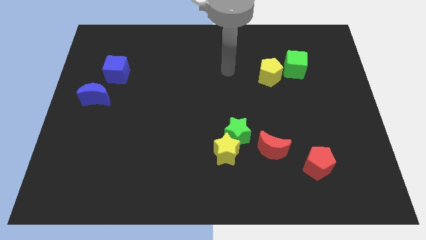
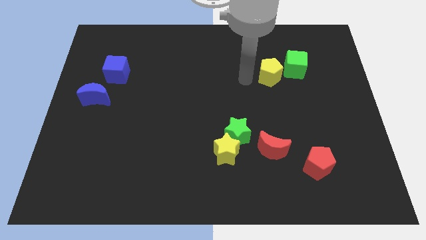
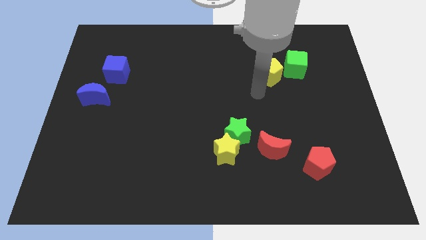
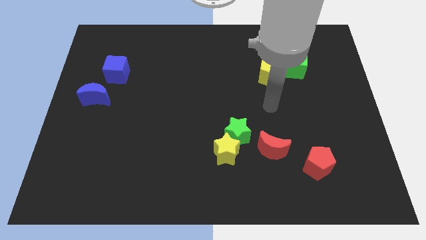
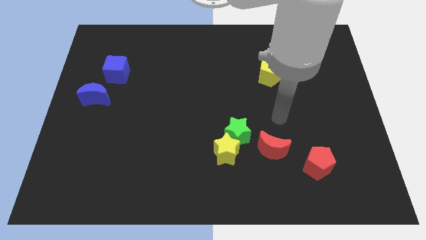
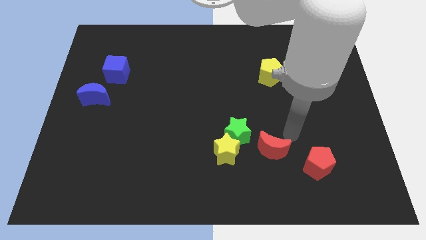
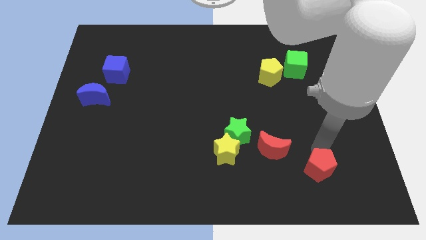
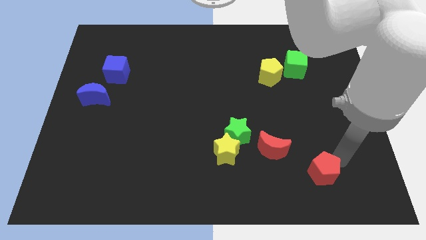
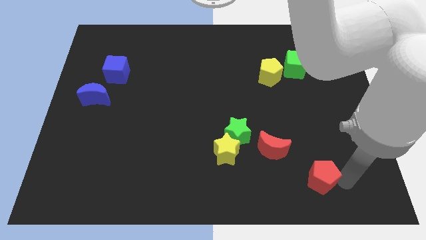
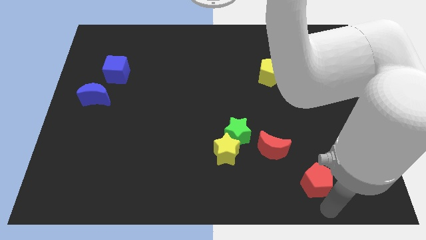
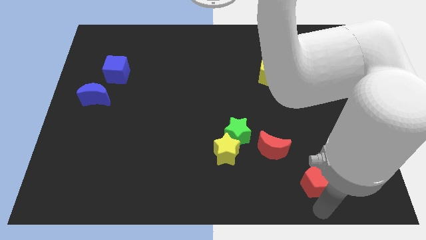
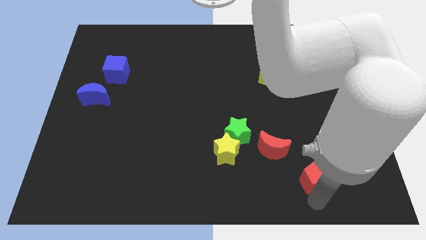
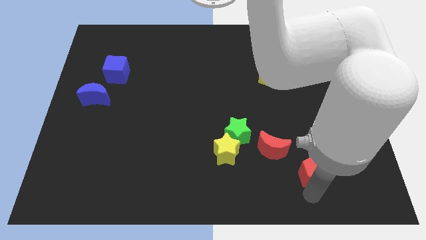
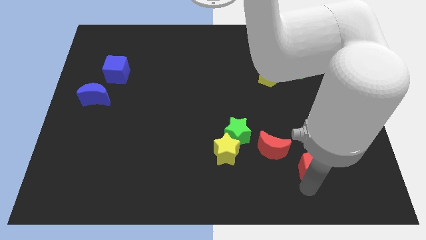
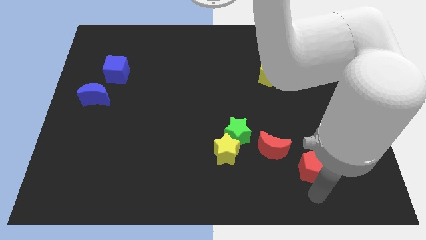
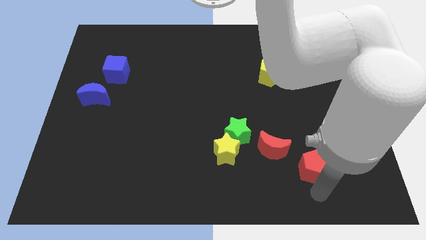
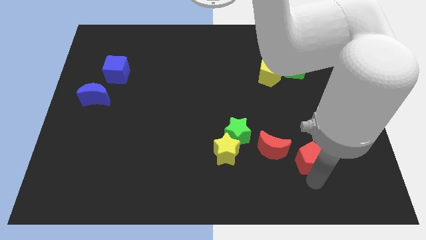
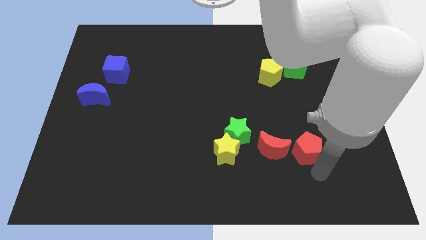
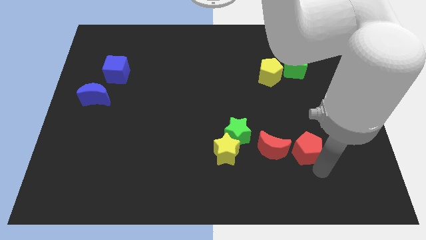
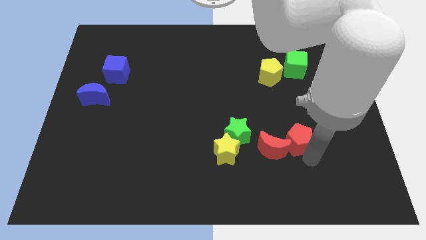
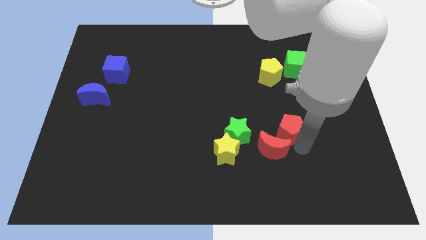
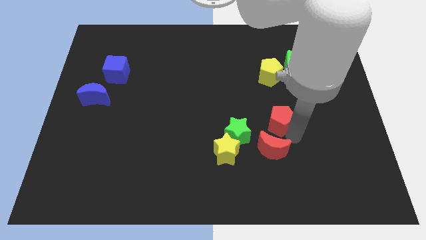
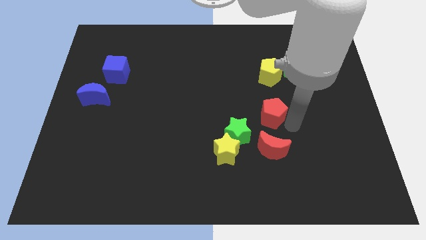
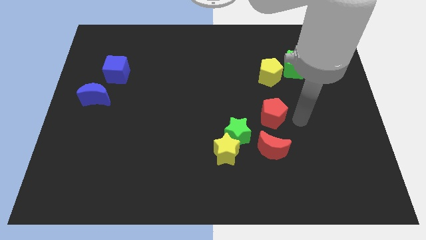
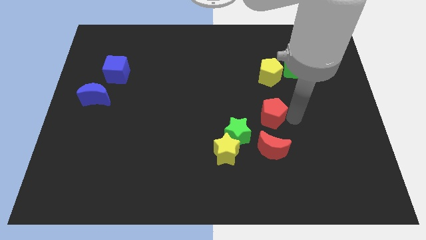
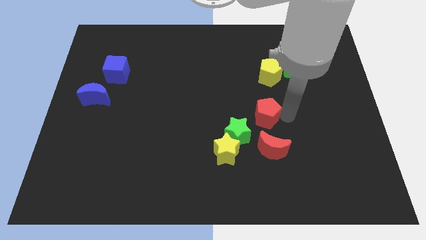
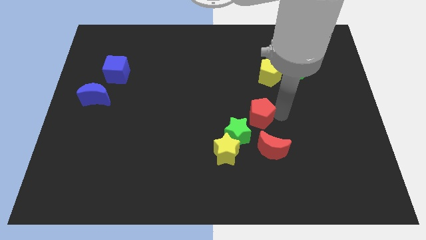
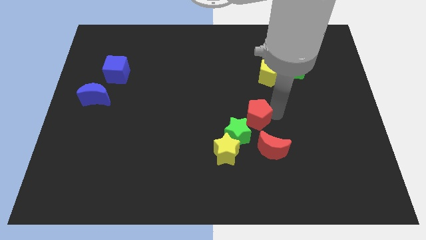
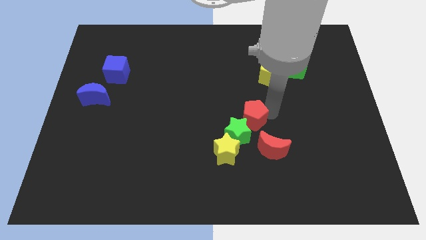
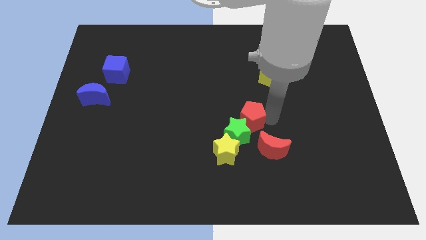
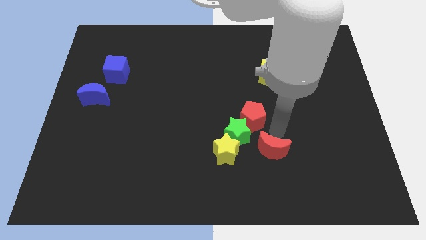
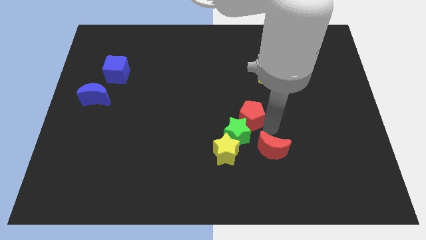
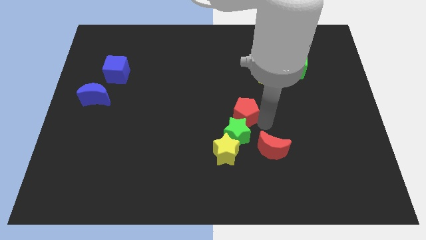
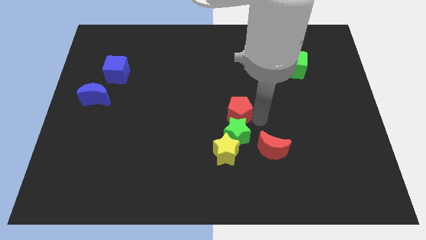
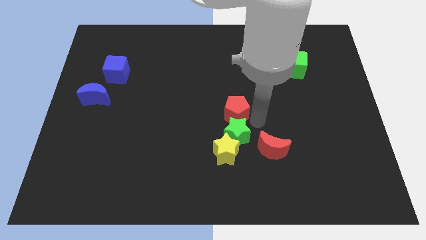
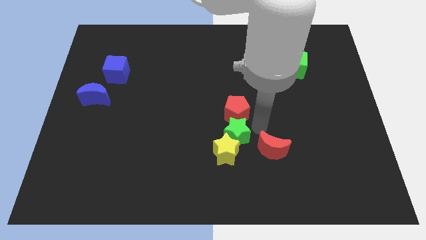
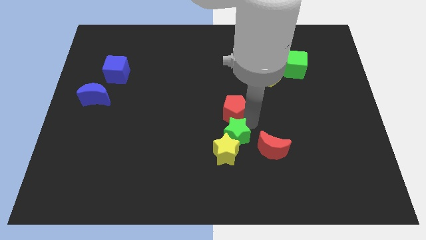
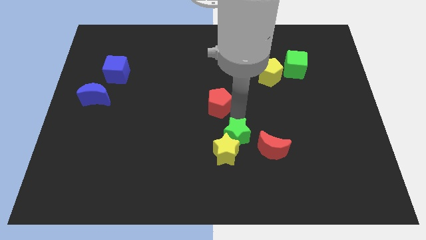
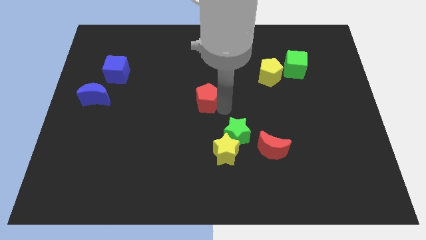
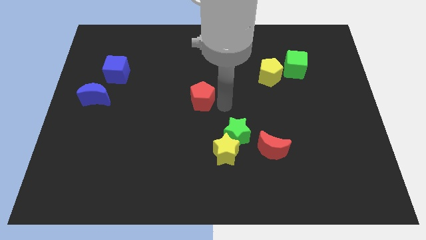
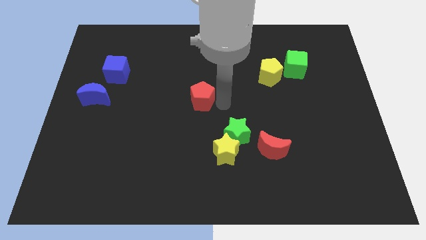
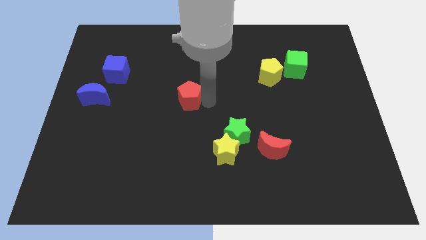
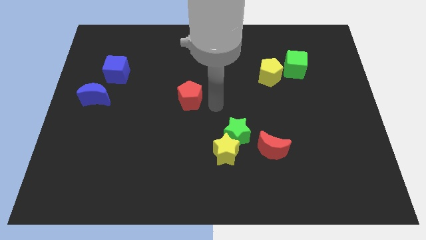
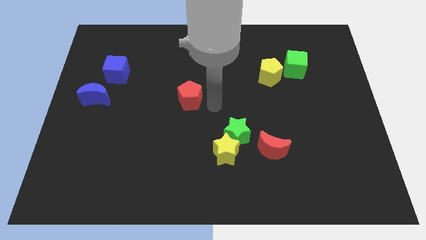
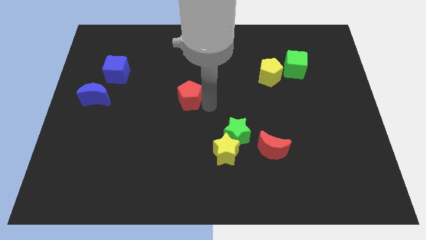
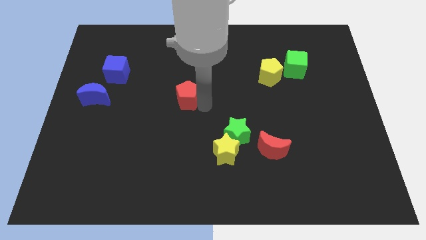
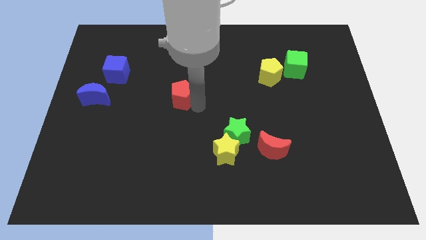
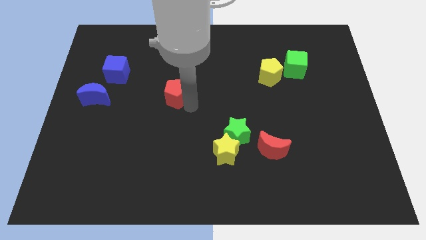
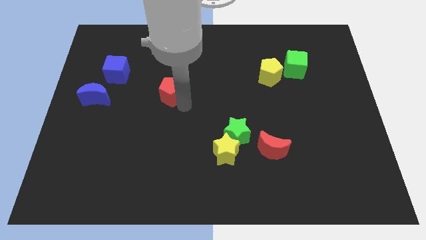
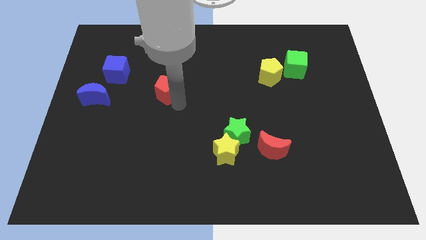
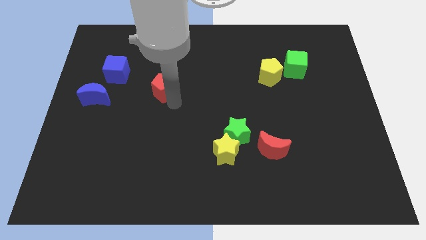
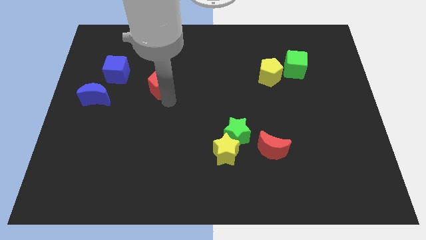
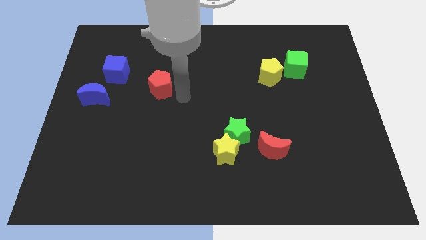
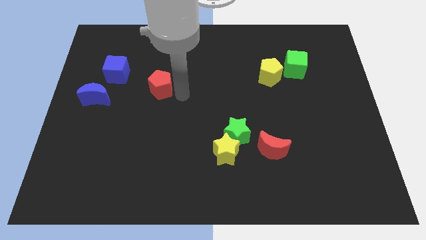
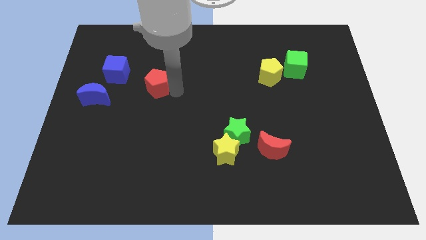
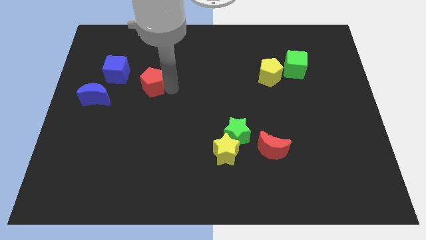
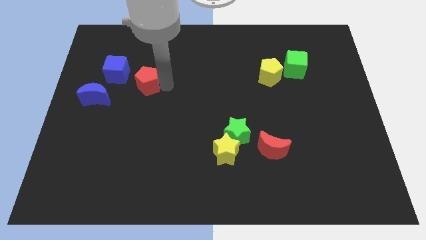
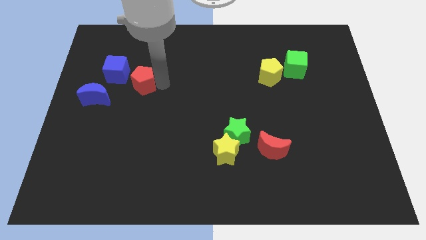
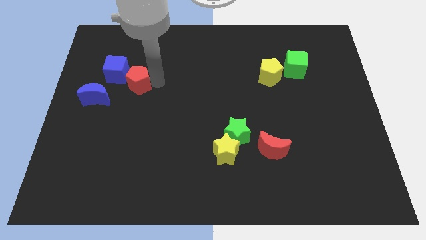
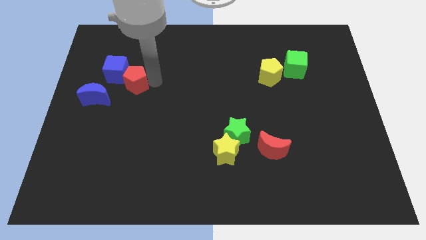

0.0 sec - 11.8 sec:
put the red pentagon to the blue cube

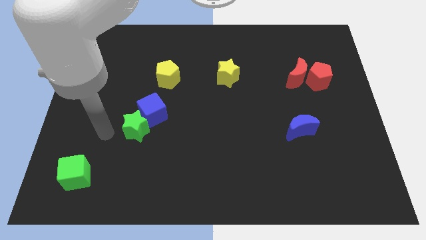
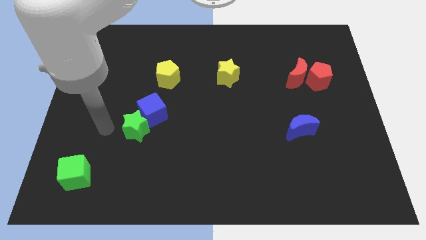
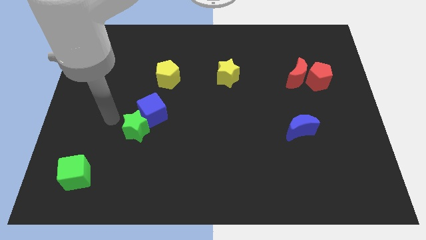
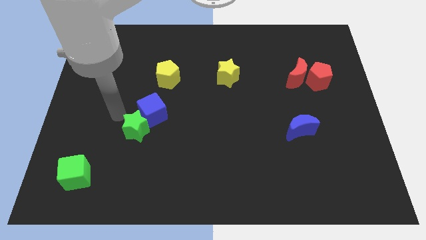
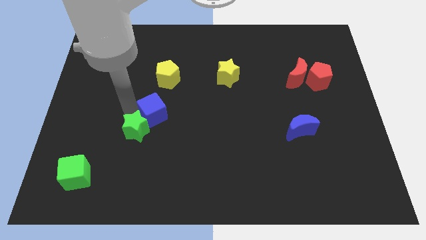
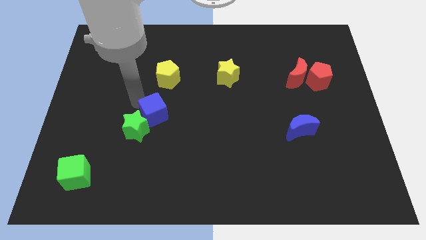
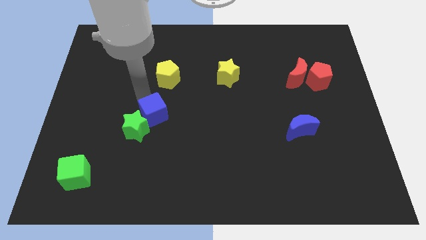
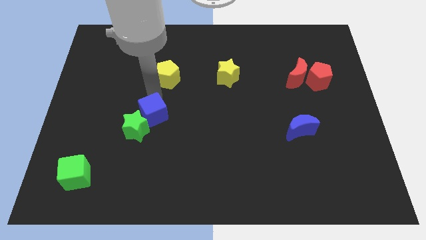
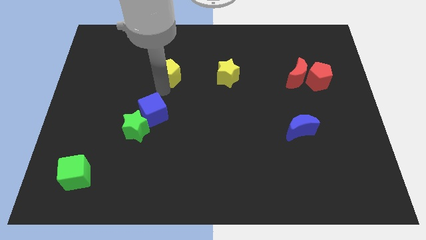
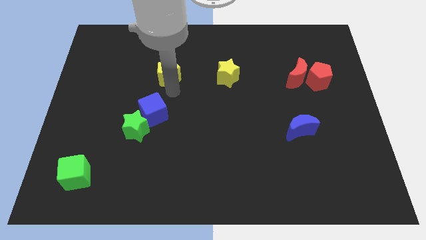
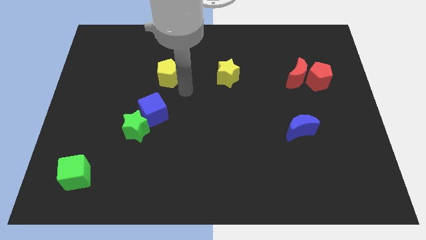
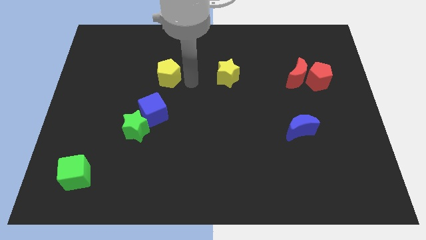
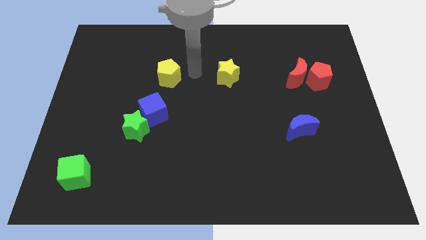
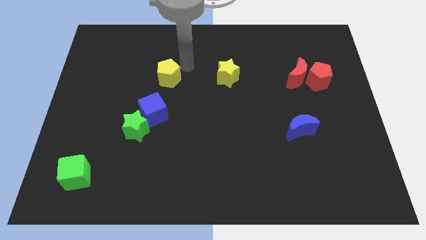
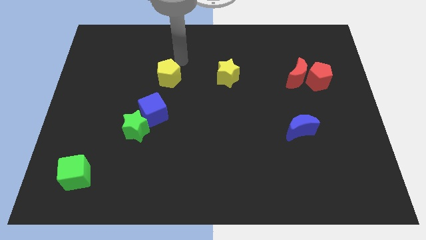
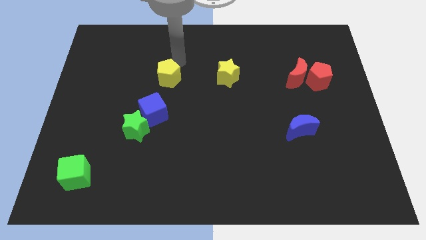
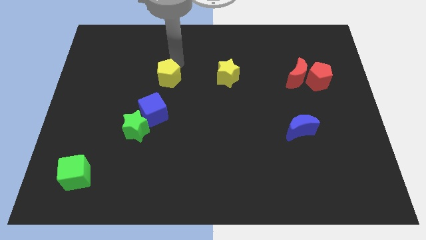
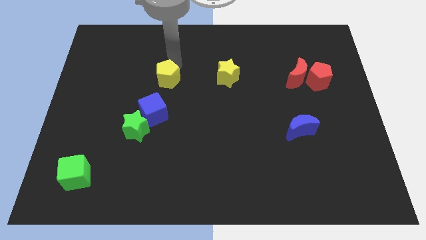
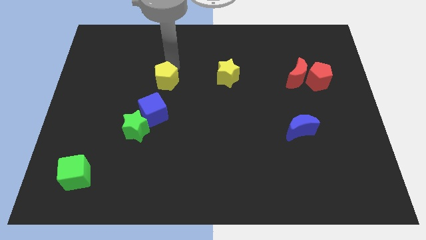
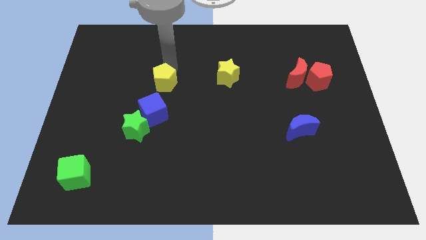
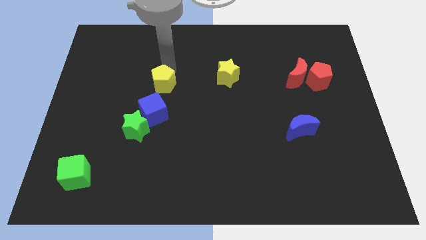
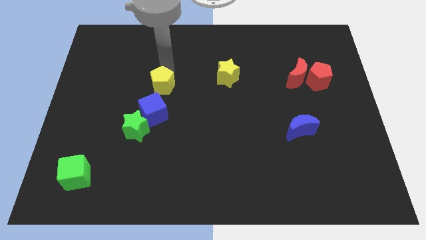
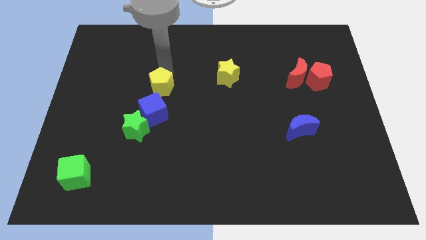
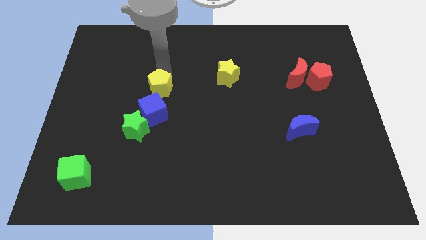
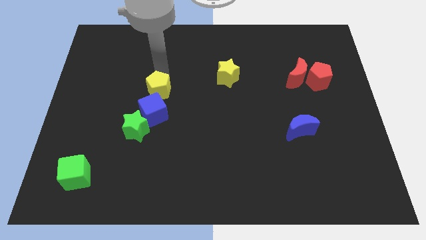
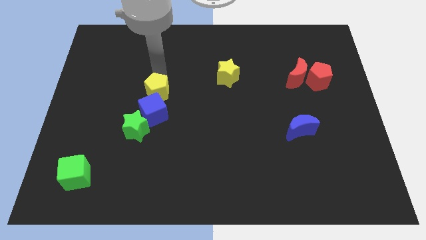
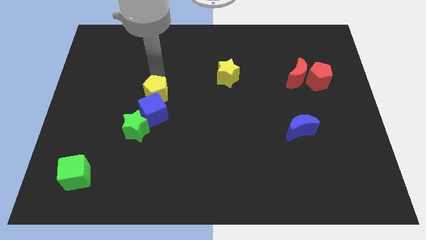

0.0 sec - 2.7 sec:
put the yellow pentagon close to the blue cube
